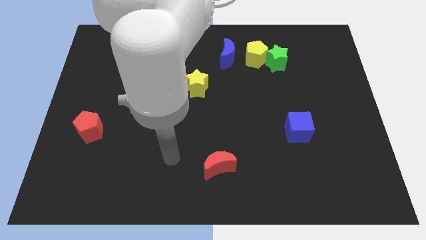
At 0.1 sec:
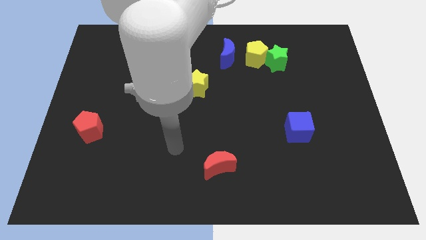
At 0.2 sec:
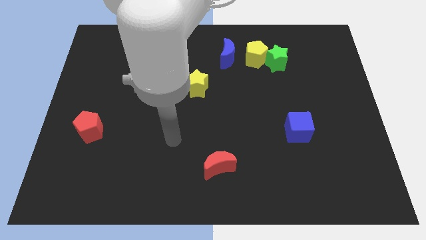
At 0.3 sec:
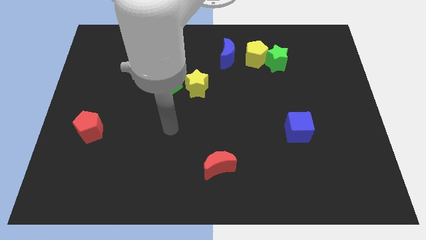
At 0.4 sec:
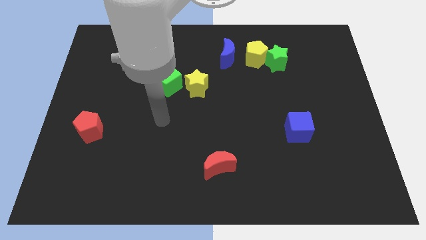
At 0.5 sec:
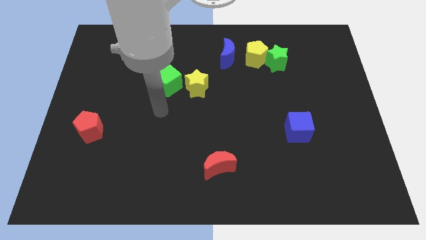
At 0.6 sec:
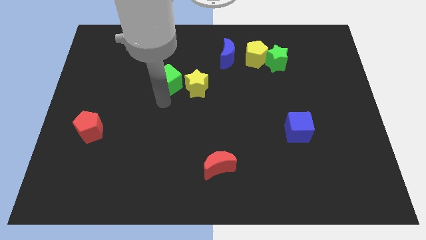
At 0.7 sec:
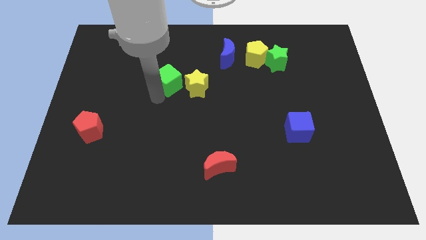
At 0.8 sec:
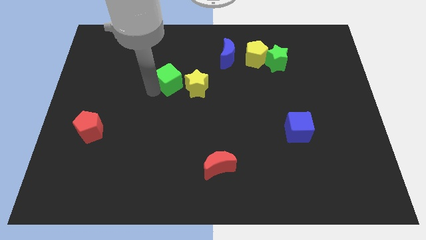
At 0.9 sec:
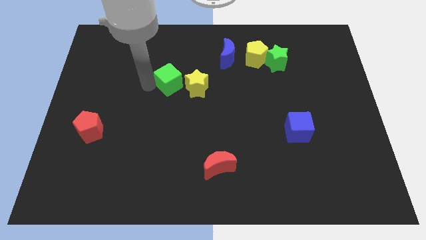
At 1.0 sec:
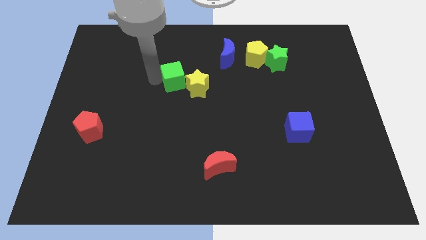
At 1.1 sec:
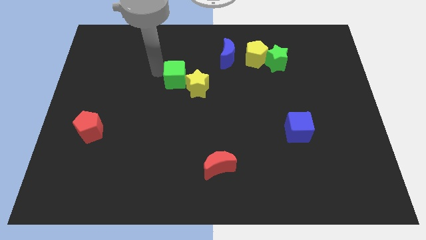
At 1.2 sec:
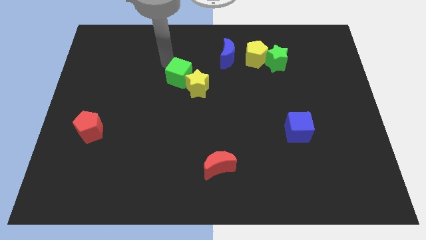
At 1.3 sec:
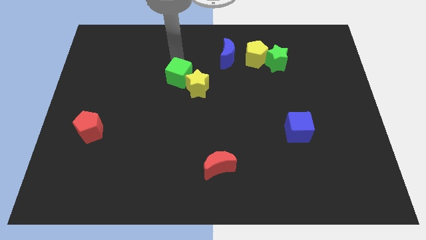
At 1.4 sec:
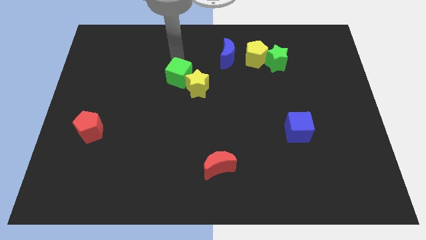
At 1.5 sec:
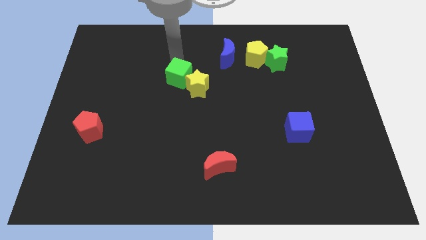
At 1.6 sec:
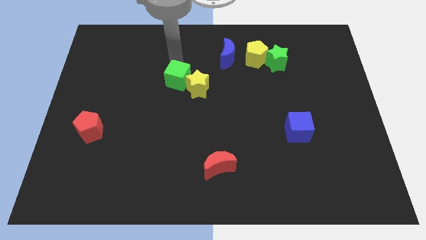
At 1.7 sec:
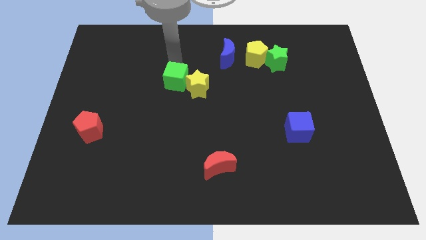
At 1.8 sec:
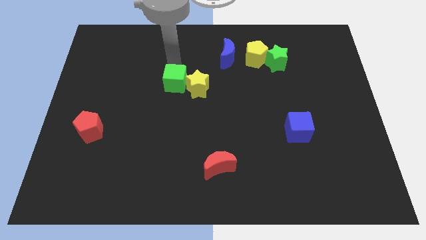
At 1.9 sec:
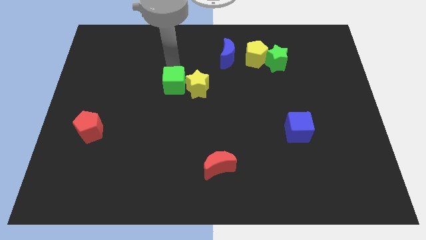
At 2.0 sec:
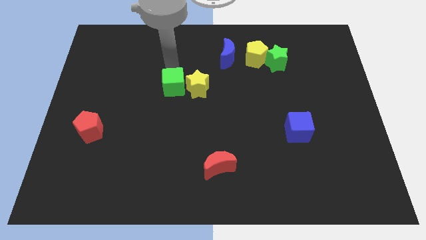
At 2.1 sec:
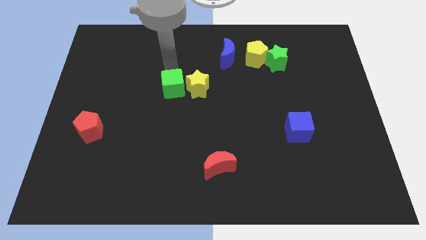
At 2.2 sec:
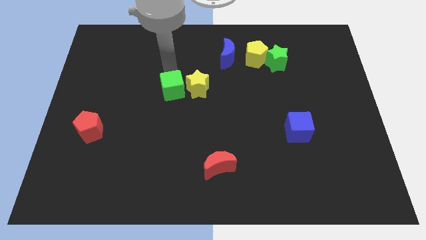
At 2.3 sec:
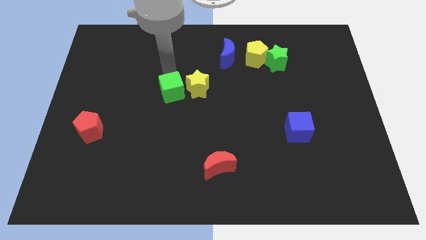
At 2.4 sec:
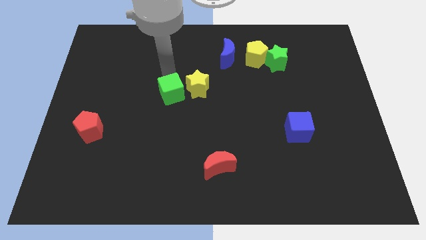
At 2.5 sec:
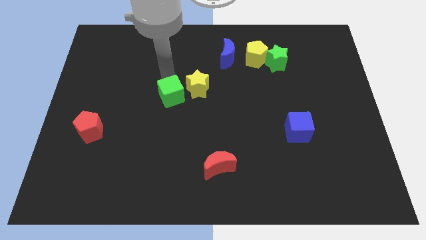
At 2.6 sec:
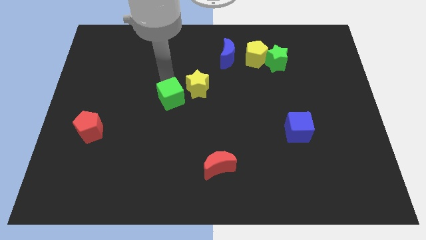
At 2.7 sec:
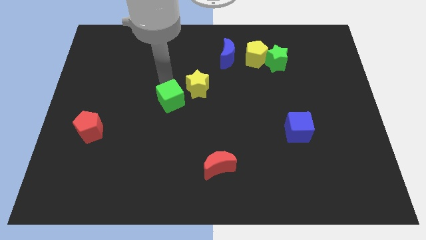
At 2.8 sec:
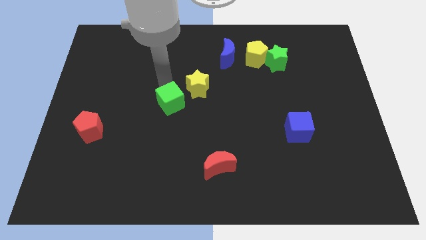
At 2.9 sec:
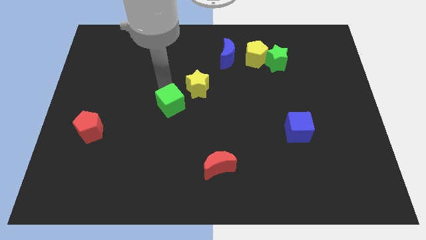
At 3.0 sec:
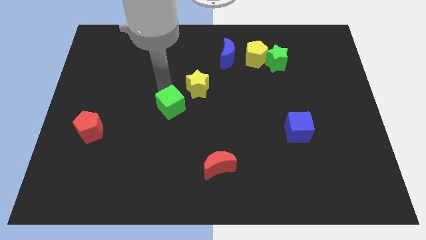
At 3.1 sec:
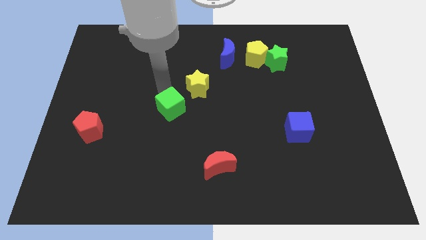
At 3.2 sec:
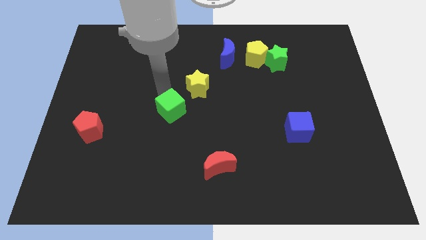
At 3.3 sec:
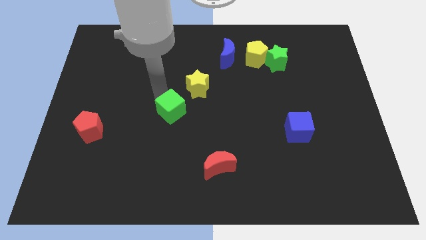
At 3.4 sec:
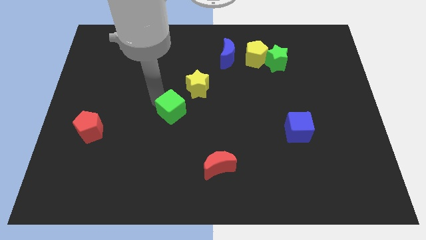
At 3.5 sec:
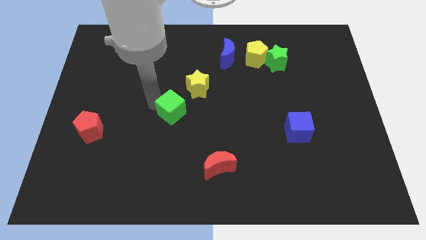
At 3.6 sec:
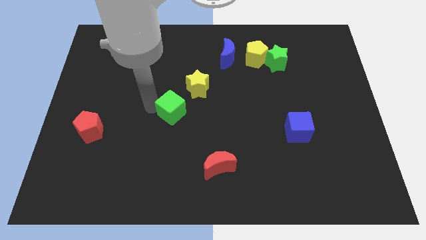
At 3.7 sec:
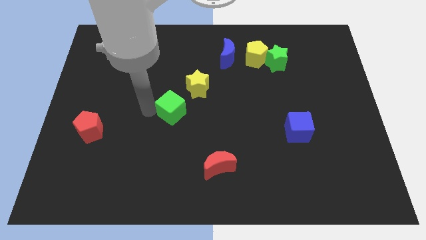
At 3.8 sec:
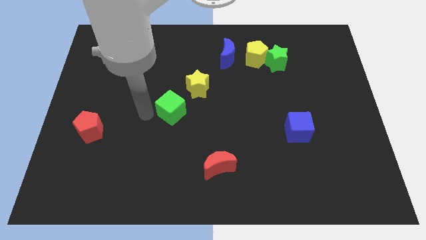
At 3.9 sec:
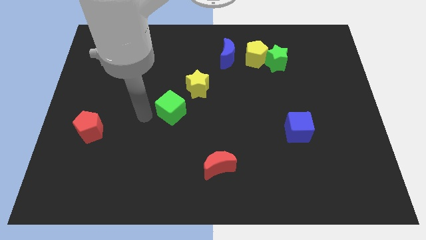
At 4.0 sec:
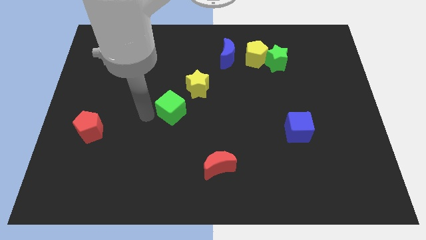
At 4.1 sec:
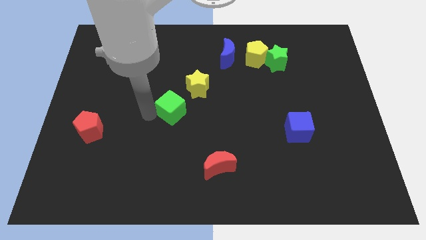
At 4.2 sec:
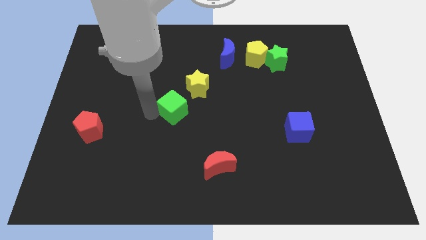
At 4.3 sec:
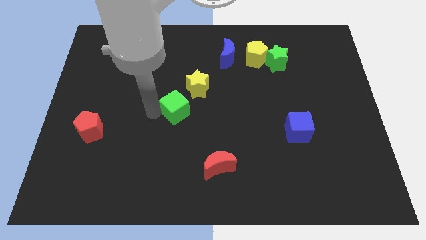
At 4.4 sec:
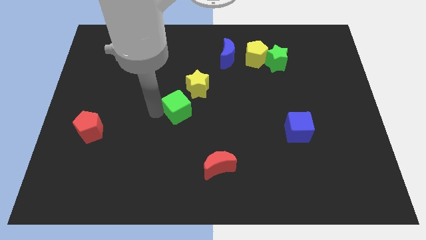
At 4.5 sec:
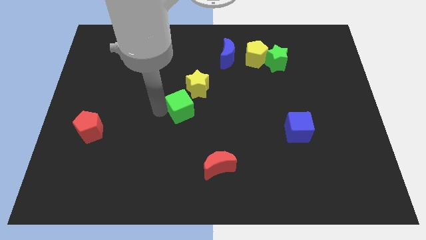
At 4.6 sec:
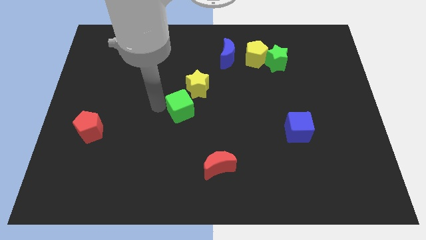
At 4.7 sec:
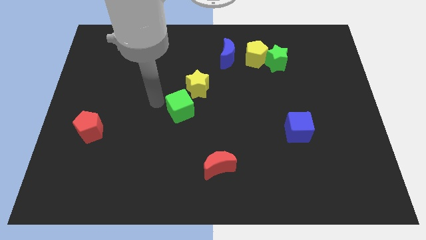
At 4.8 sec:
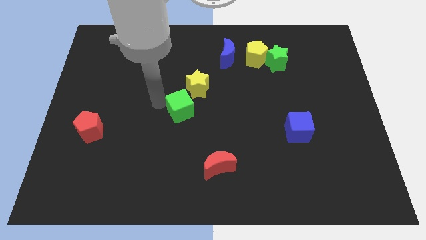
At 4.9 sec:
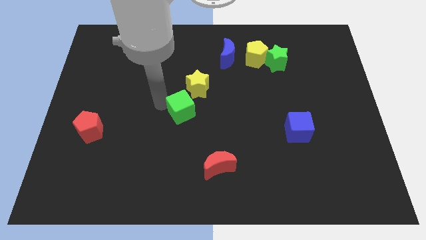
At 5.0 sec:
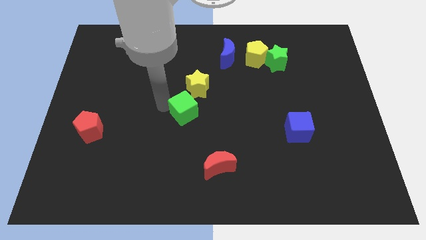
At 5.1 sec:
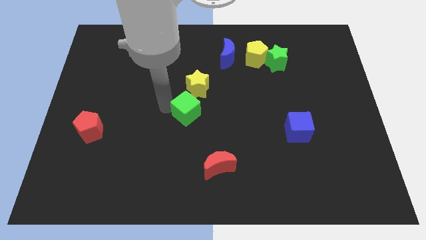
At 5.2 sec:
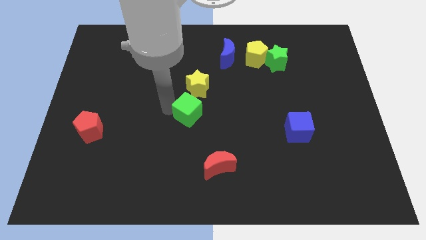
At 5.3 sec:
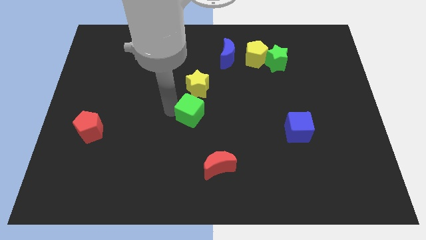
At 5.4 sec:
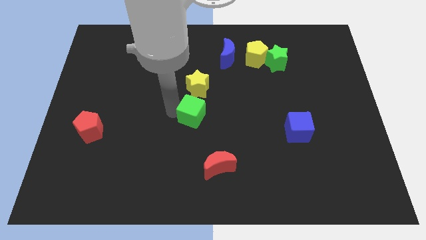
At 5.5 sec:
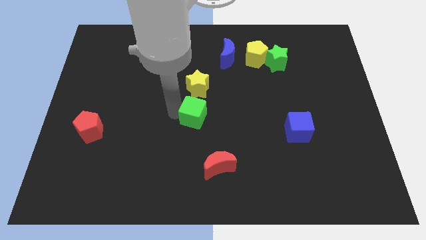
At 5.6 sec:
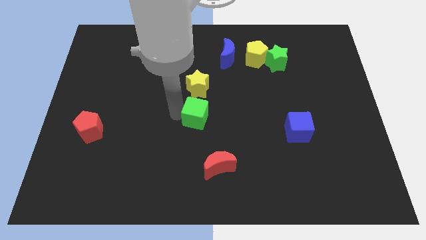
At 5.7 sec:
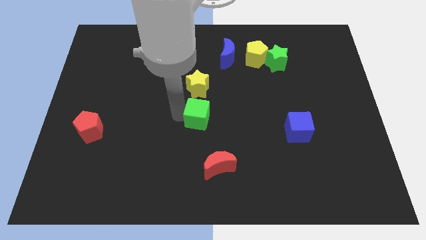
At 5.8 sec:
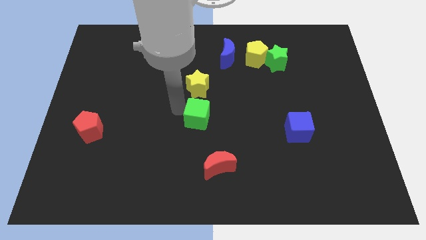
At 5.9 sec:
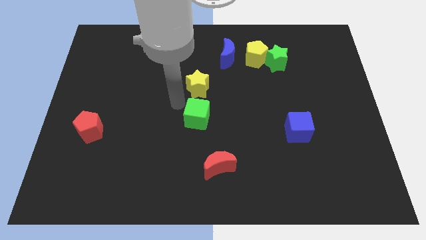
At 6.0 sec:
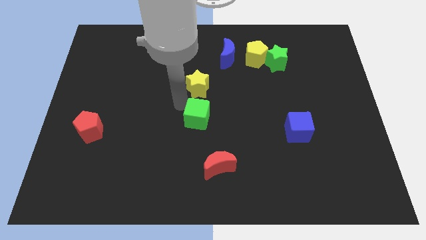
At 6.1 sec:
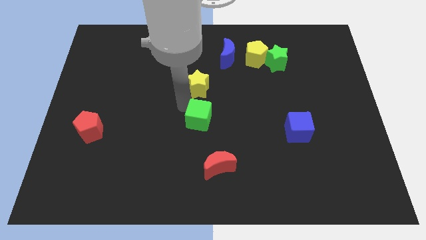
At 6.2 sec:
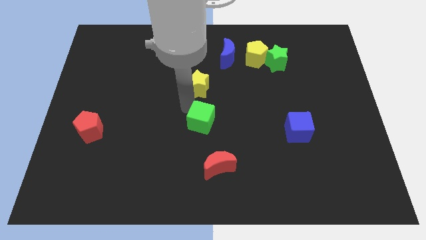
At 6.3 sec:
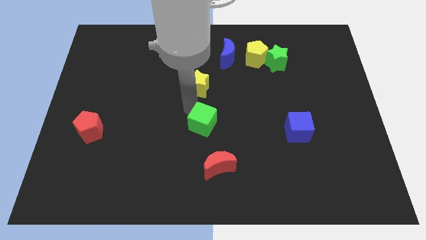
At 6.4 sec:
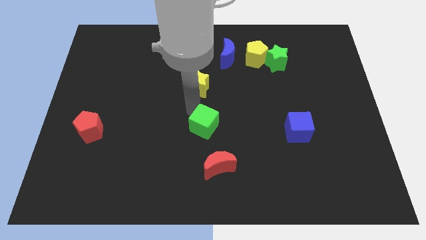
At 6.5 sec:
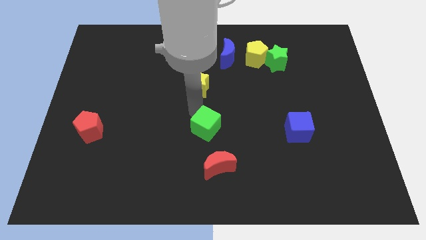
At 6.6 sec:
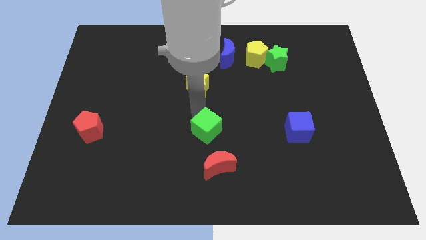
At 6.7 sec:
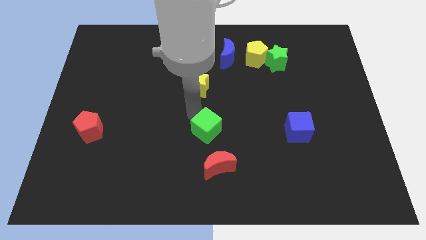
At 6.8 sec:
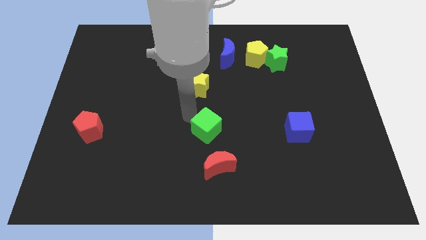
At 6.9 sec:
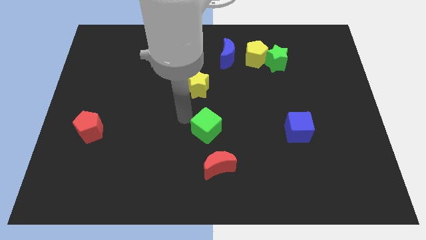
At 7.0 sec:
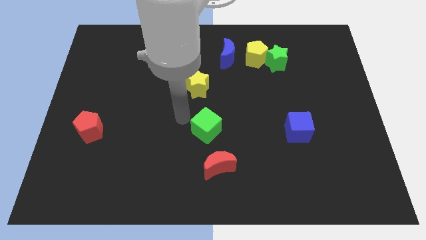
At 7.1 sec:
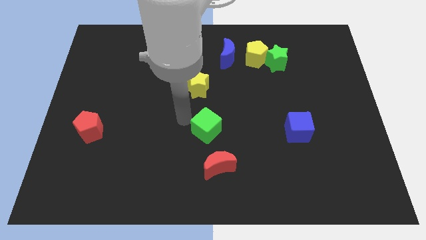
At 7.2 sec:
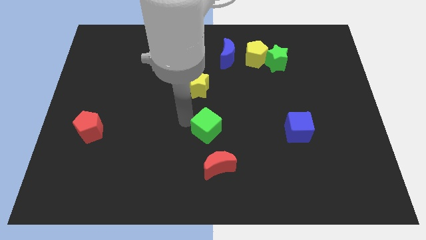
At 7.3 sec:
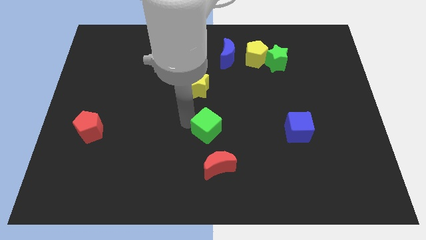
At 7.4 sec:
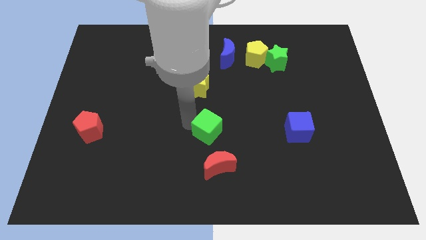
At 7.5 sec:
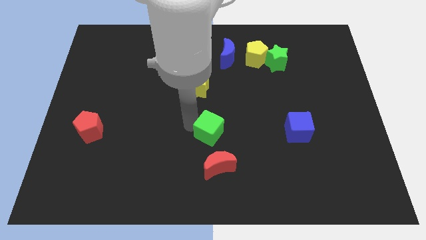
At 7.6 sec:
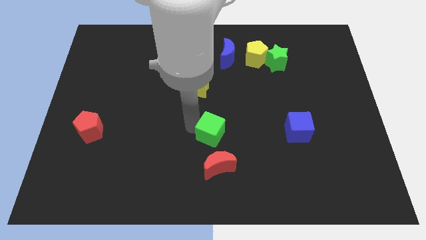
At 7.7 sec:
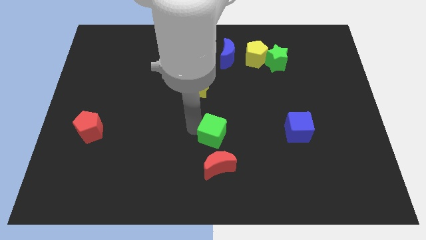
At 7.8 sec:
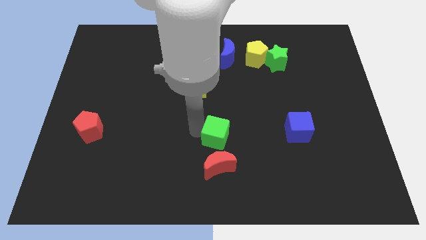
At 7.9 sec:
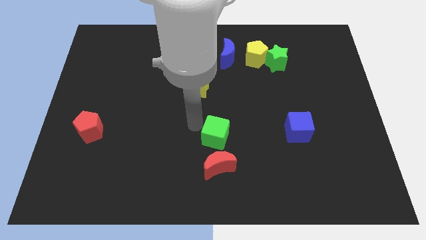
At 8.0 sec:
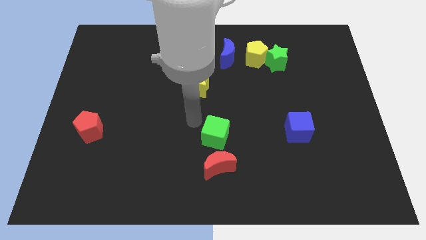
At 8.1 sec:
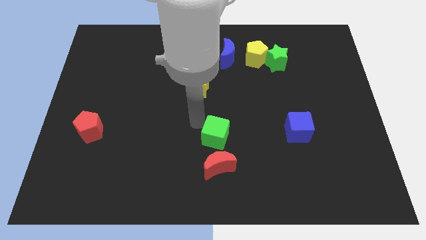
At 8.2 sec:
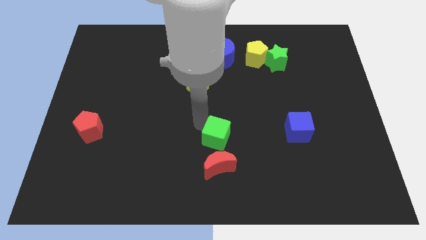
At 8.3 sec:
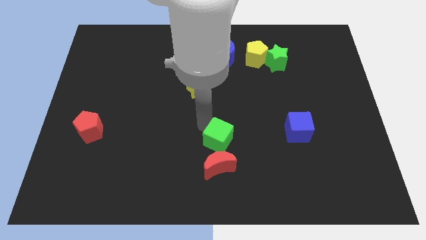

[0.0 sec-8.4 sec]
move the green cube down and to the right
